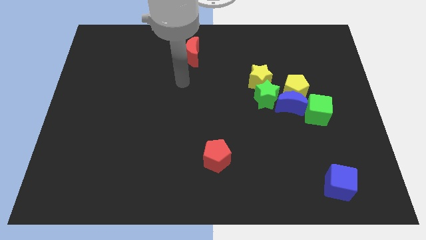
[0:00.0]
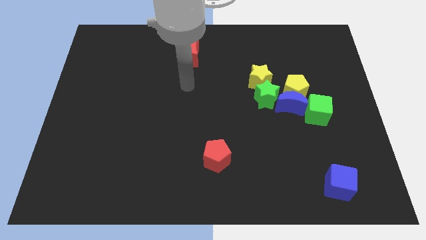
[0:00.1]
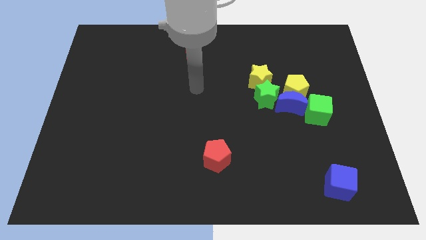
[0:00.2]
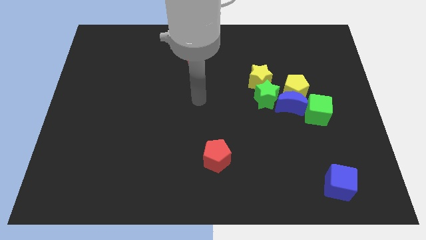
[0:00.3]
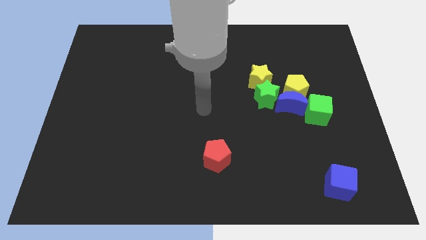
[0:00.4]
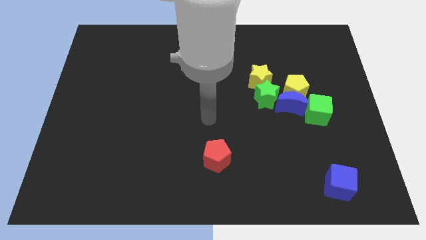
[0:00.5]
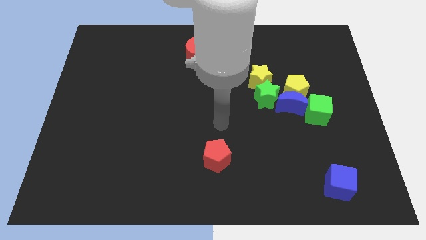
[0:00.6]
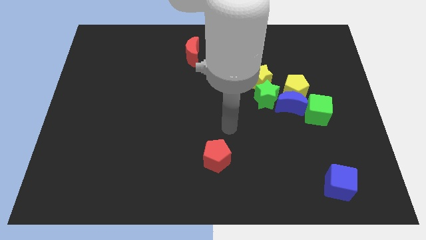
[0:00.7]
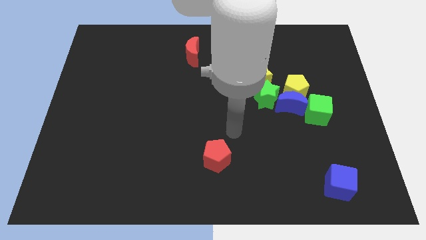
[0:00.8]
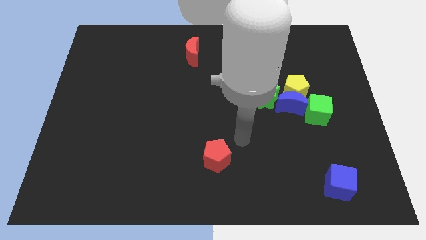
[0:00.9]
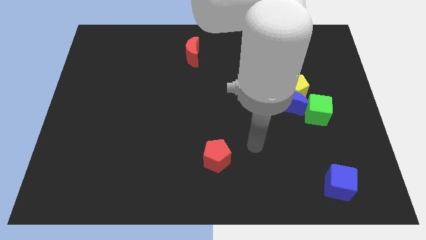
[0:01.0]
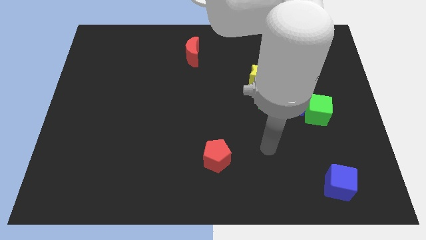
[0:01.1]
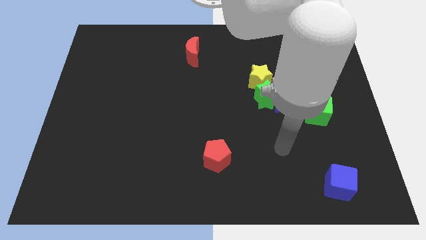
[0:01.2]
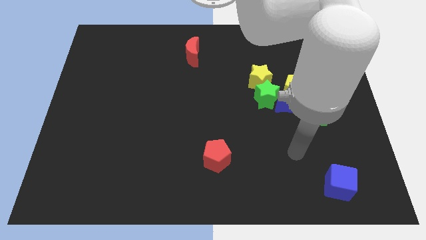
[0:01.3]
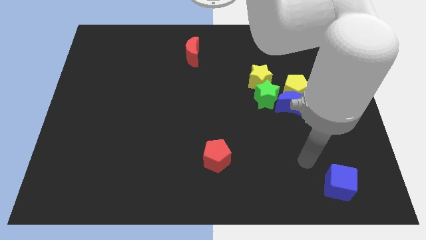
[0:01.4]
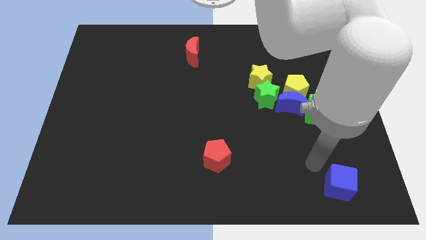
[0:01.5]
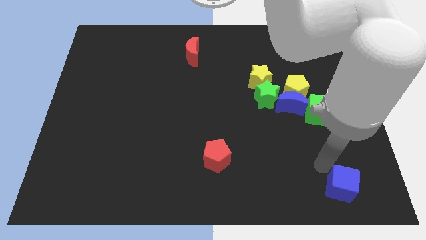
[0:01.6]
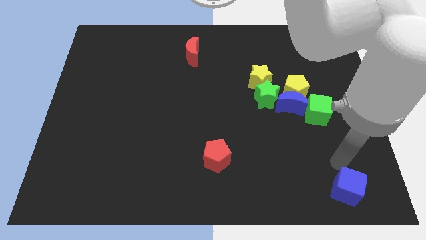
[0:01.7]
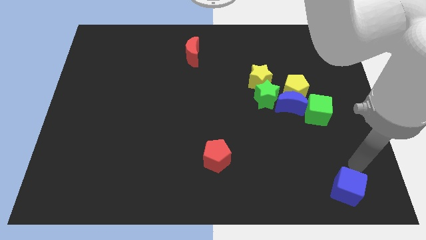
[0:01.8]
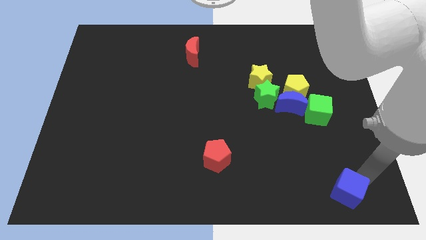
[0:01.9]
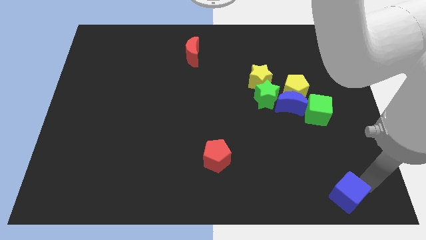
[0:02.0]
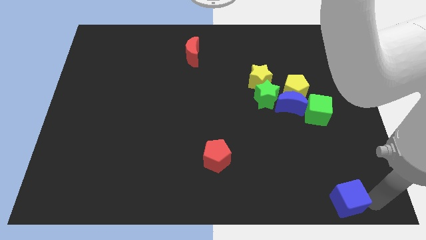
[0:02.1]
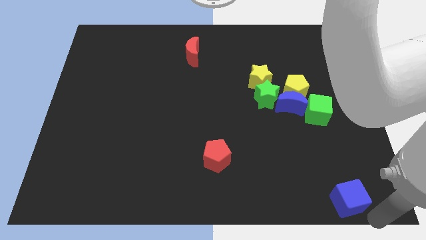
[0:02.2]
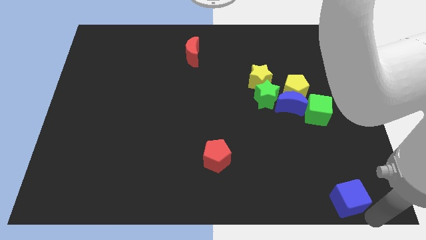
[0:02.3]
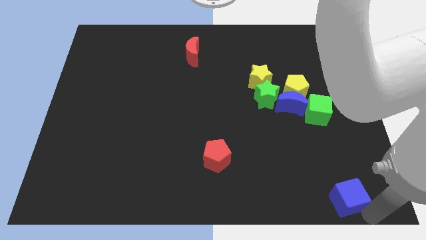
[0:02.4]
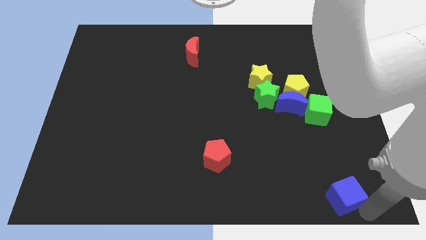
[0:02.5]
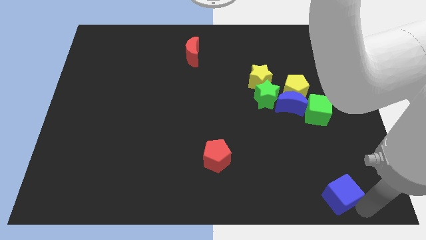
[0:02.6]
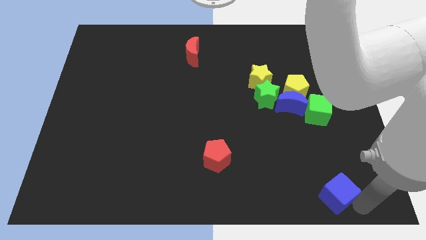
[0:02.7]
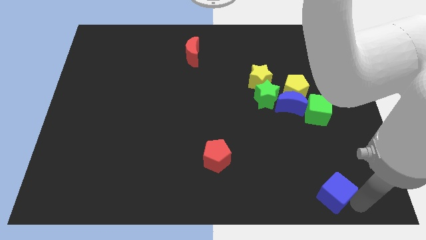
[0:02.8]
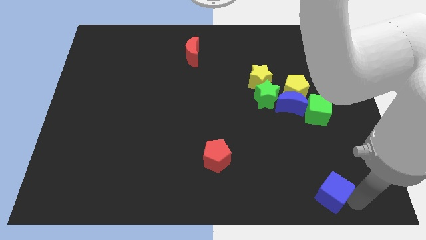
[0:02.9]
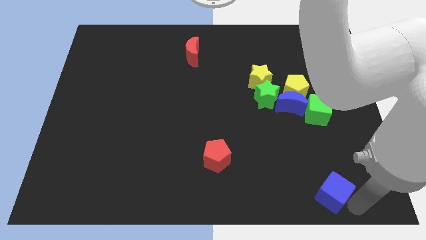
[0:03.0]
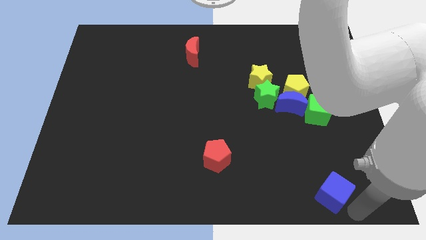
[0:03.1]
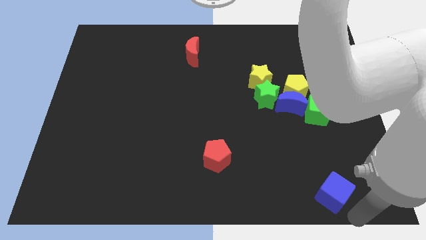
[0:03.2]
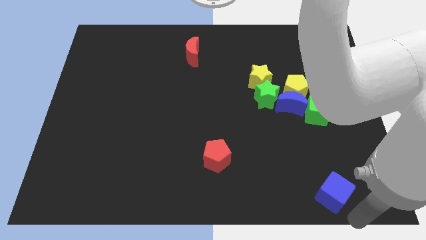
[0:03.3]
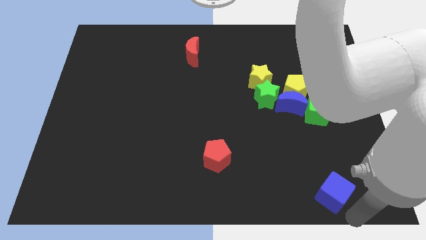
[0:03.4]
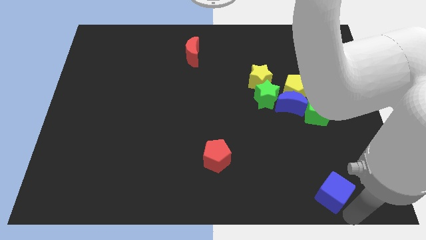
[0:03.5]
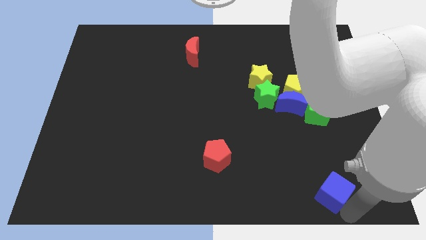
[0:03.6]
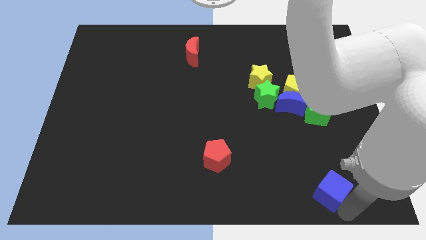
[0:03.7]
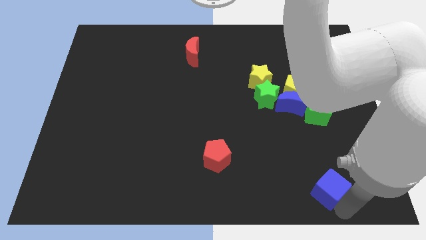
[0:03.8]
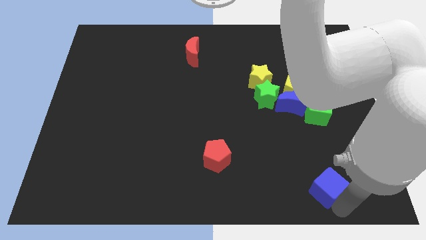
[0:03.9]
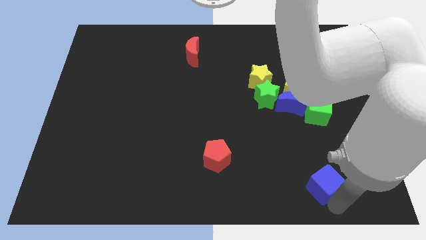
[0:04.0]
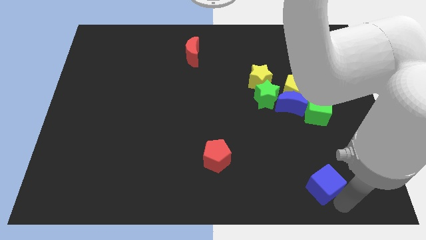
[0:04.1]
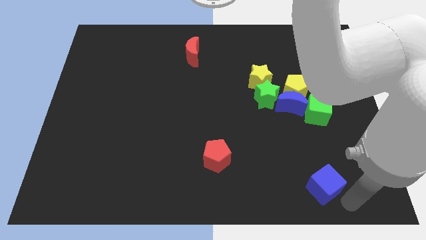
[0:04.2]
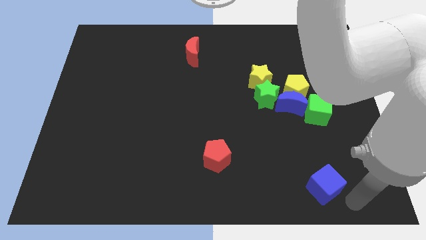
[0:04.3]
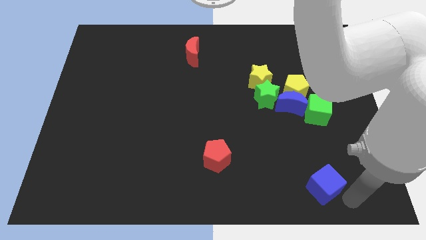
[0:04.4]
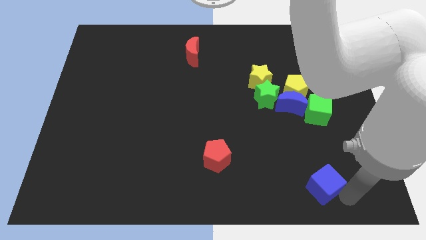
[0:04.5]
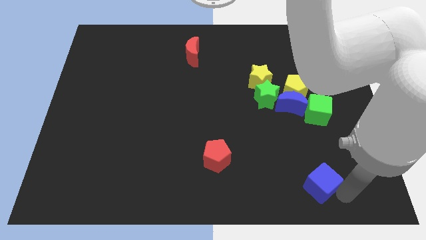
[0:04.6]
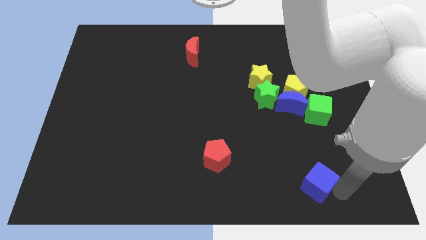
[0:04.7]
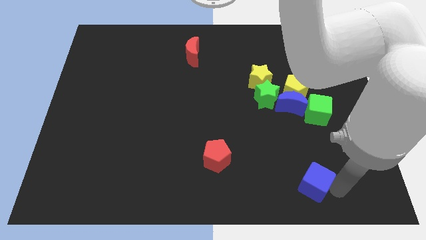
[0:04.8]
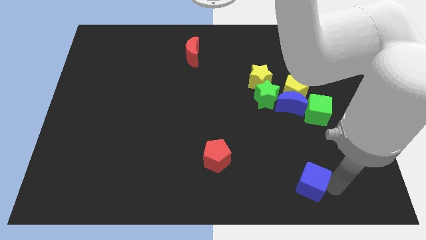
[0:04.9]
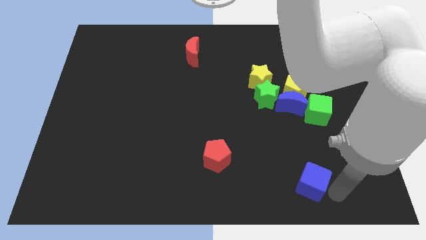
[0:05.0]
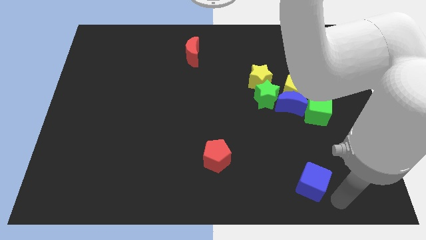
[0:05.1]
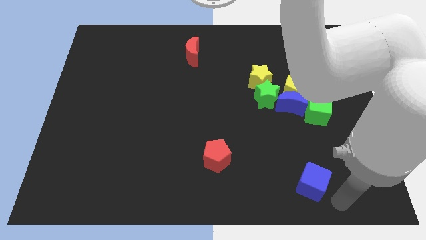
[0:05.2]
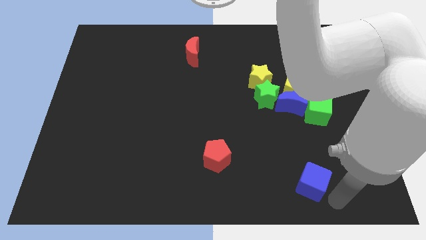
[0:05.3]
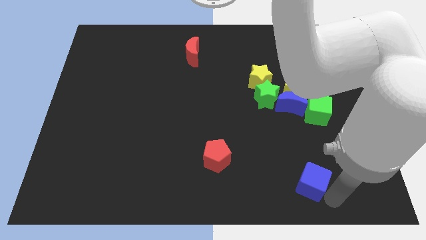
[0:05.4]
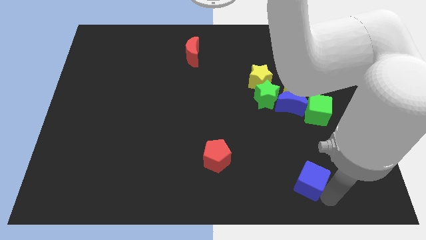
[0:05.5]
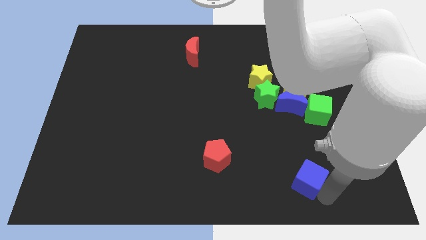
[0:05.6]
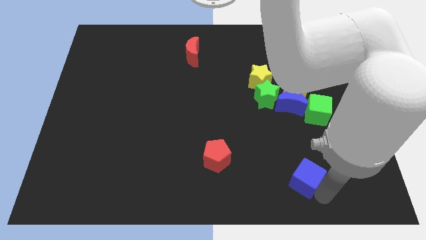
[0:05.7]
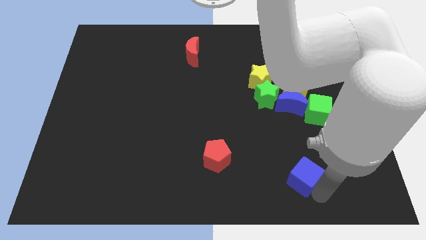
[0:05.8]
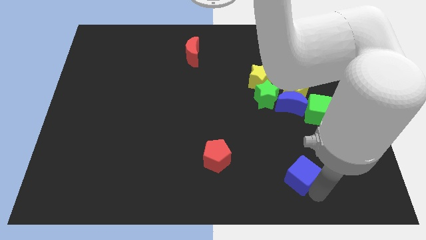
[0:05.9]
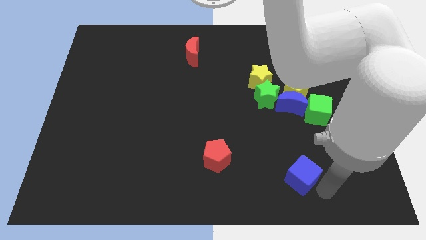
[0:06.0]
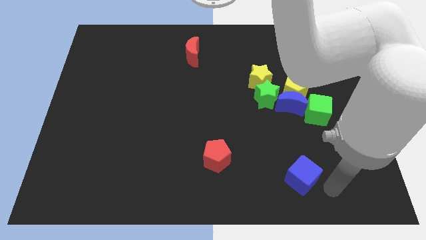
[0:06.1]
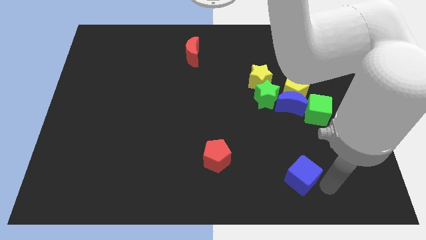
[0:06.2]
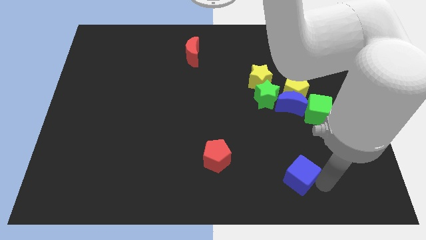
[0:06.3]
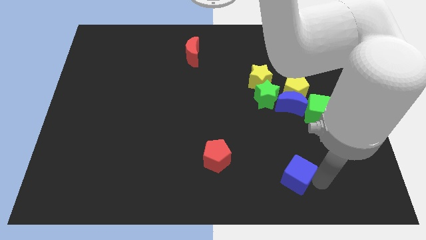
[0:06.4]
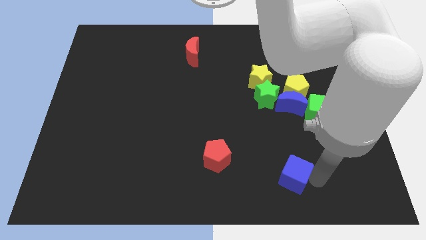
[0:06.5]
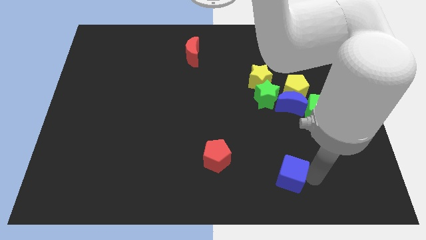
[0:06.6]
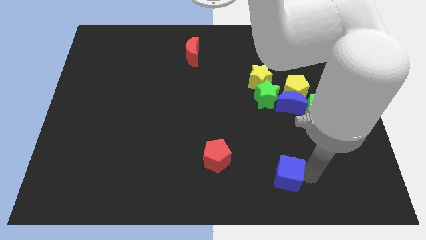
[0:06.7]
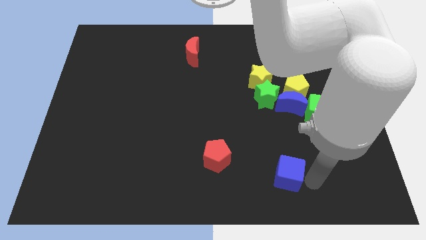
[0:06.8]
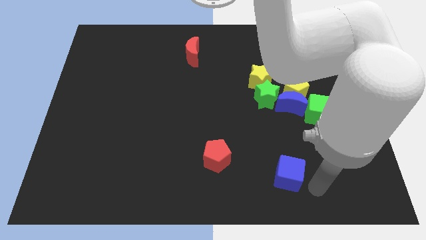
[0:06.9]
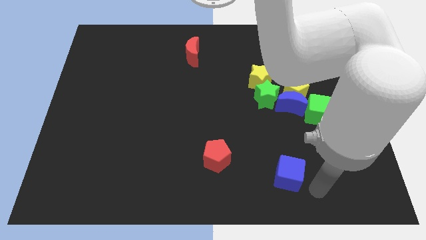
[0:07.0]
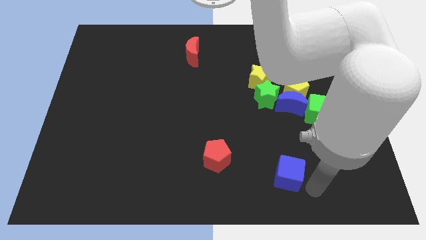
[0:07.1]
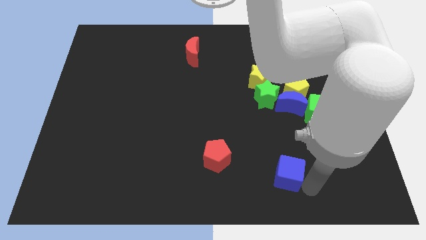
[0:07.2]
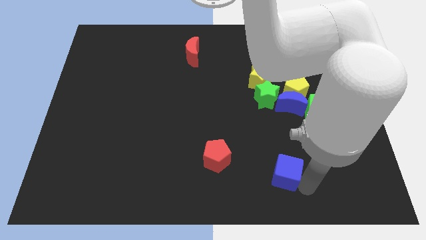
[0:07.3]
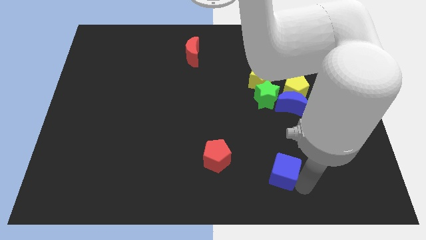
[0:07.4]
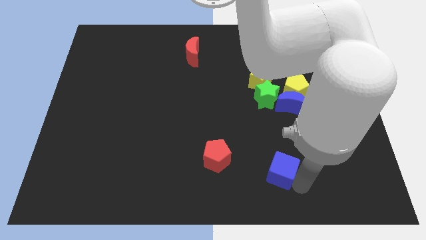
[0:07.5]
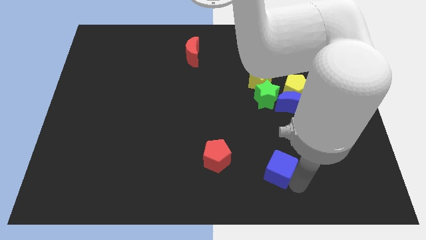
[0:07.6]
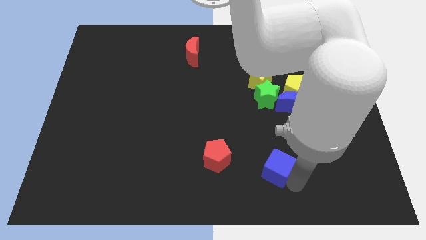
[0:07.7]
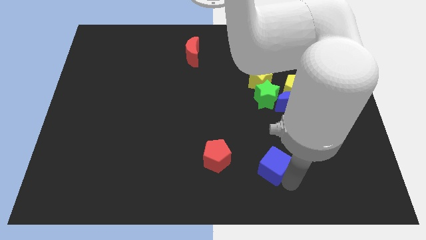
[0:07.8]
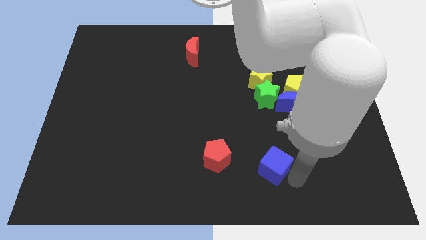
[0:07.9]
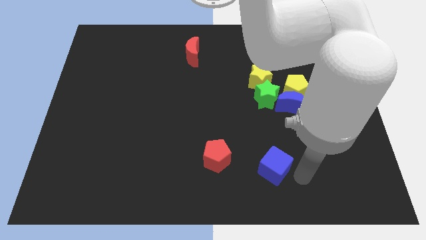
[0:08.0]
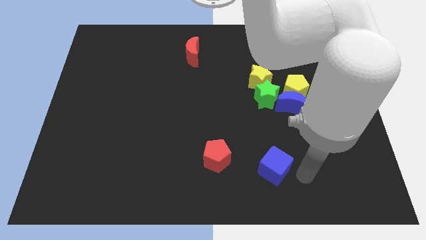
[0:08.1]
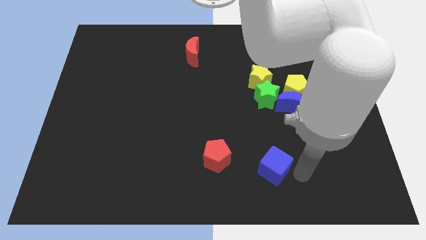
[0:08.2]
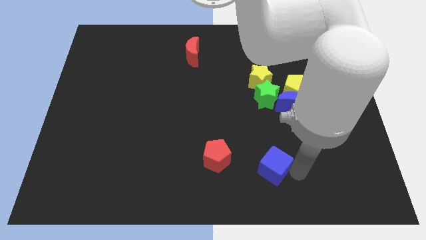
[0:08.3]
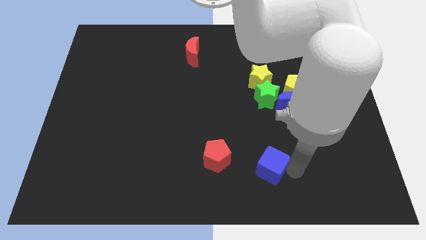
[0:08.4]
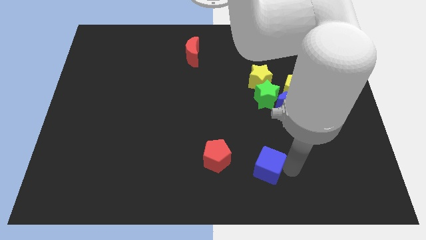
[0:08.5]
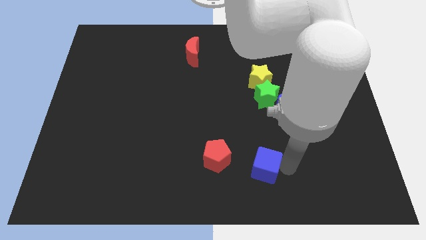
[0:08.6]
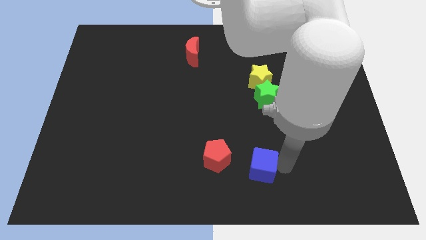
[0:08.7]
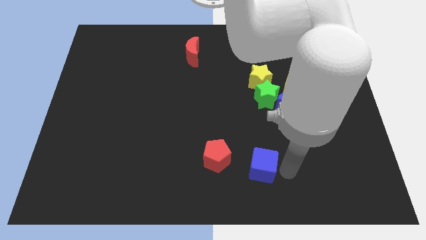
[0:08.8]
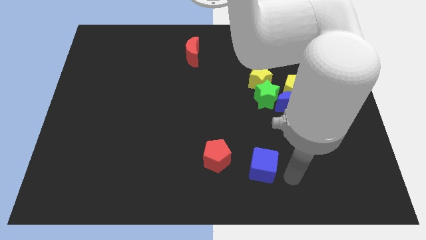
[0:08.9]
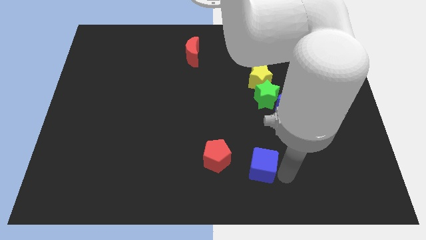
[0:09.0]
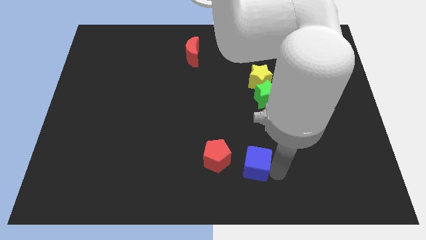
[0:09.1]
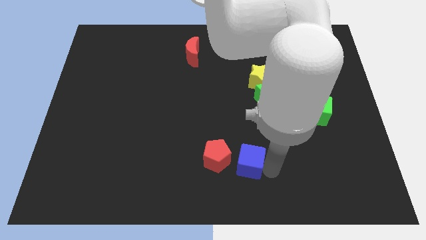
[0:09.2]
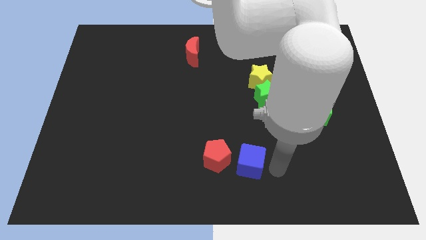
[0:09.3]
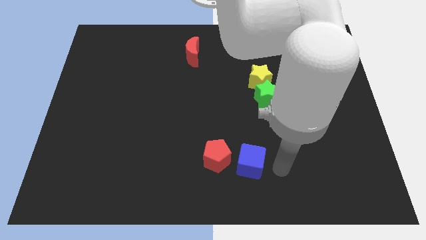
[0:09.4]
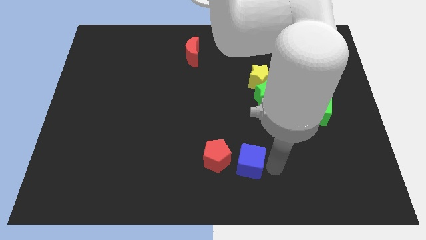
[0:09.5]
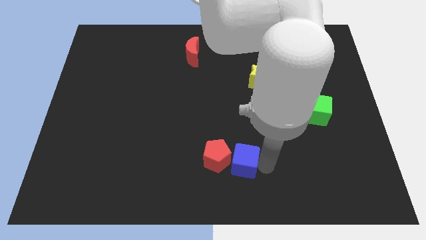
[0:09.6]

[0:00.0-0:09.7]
slide the blue cube to the red pentagon
